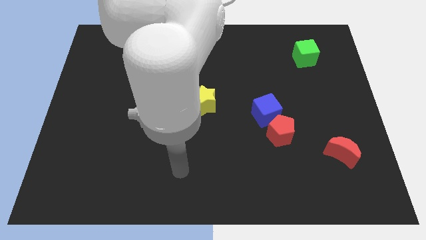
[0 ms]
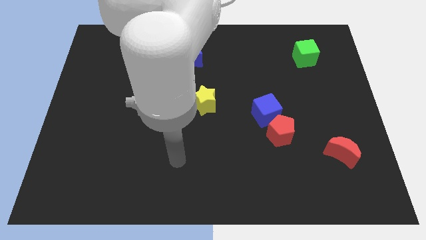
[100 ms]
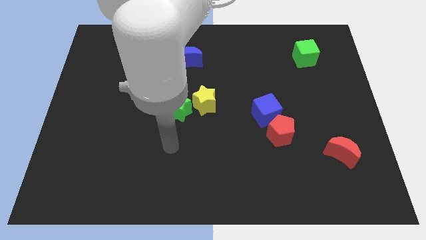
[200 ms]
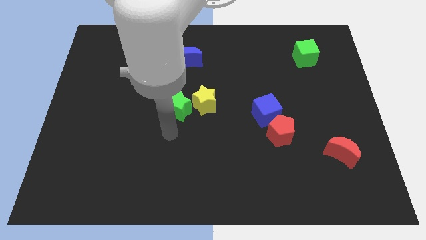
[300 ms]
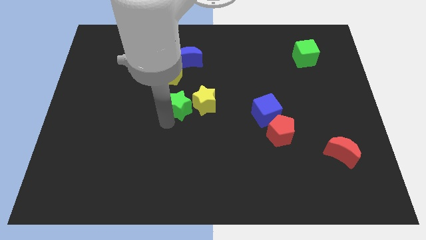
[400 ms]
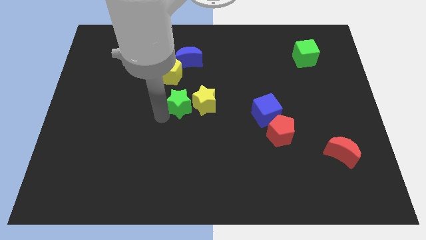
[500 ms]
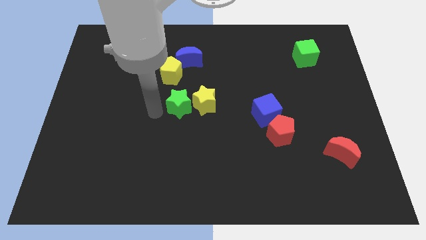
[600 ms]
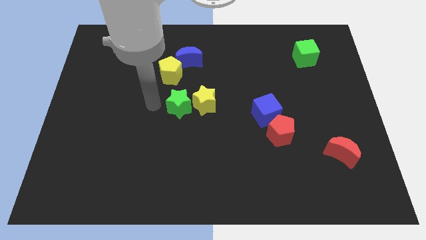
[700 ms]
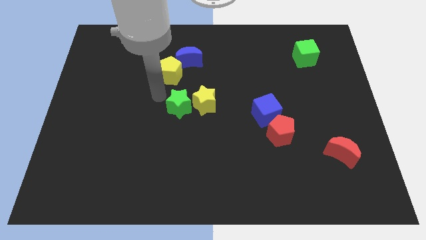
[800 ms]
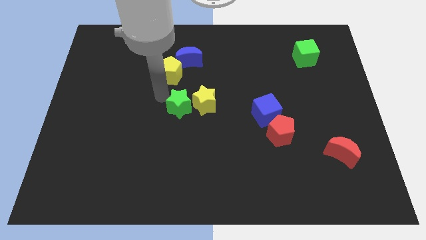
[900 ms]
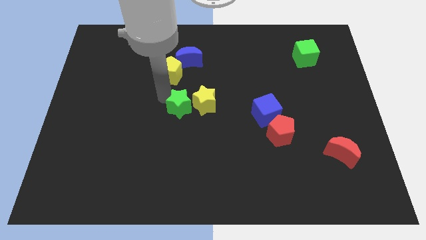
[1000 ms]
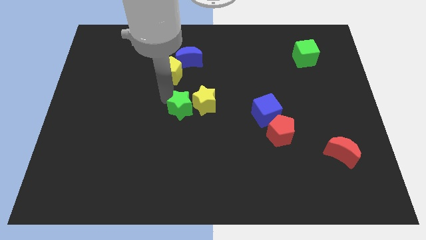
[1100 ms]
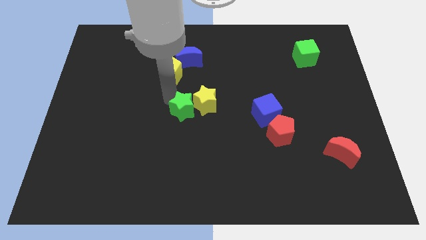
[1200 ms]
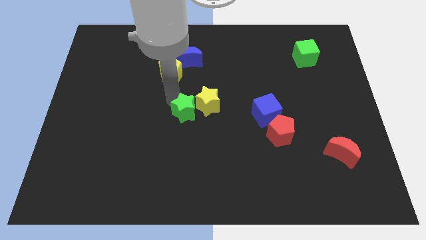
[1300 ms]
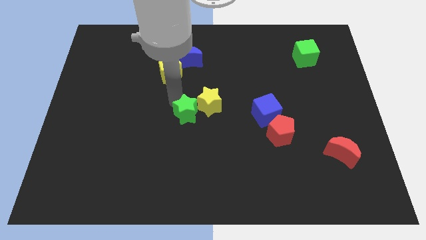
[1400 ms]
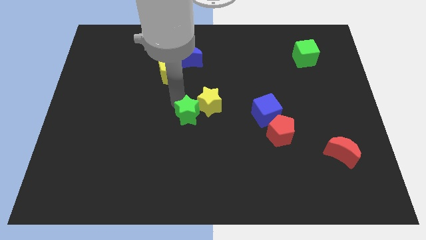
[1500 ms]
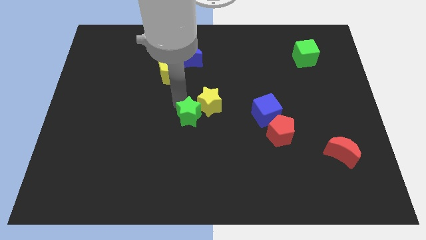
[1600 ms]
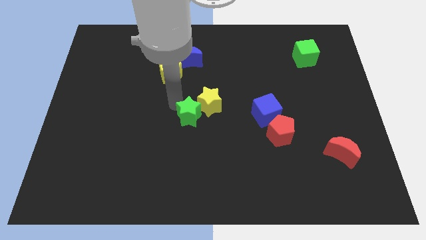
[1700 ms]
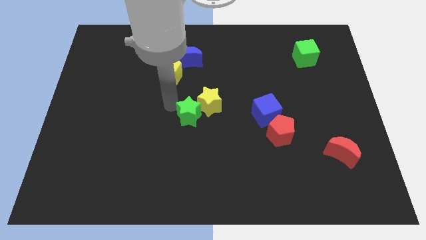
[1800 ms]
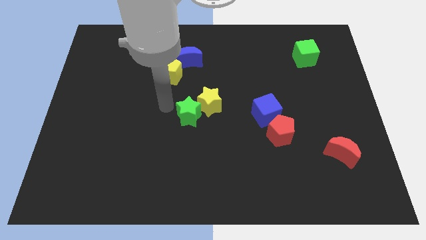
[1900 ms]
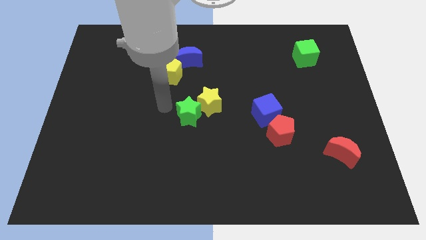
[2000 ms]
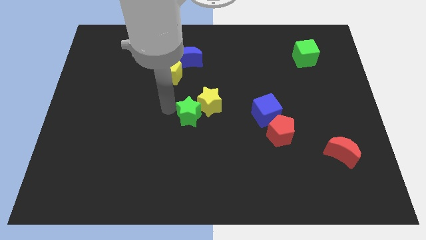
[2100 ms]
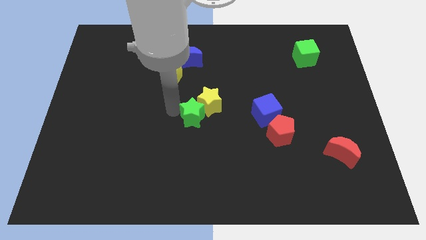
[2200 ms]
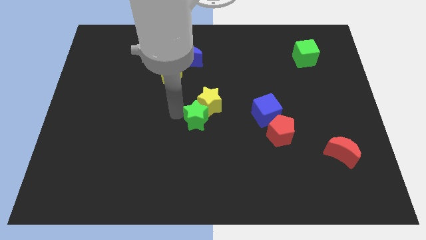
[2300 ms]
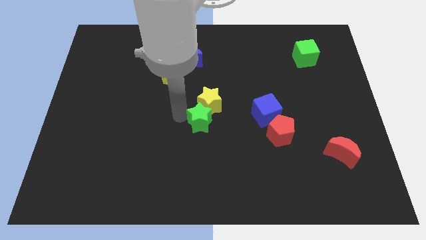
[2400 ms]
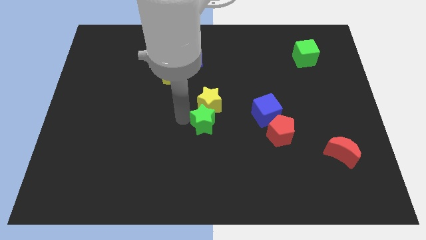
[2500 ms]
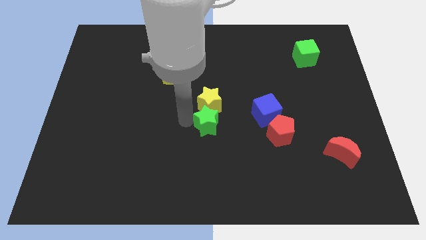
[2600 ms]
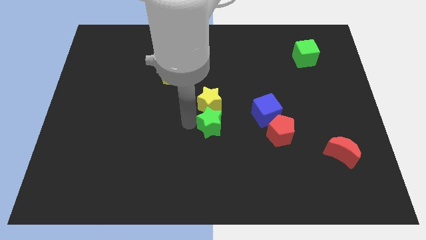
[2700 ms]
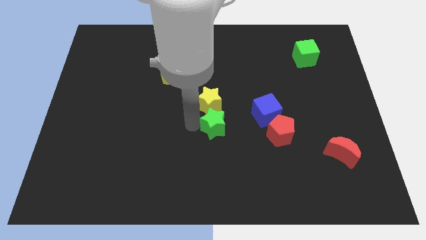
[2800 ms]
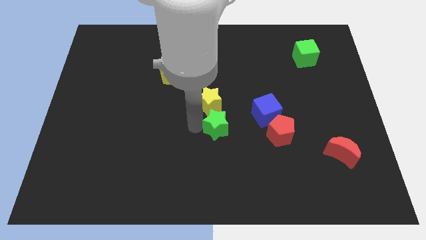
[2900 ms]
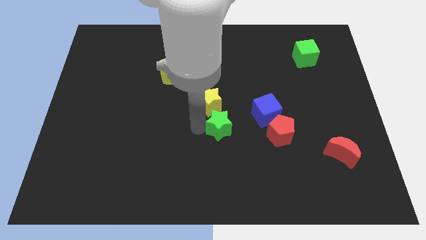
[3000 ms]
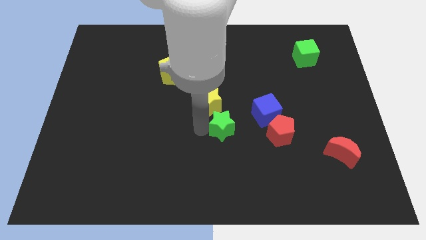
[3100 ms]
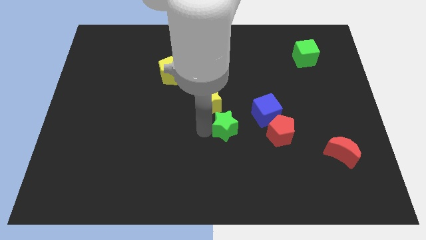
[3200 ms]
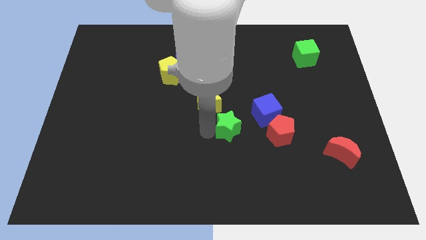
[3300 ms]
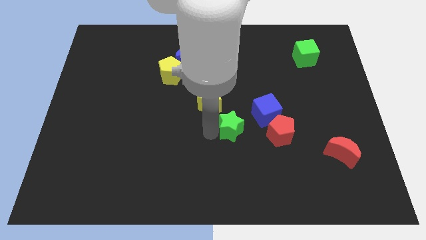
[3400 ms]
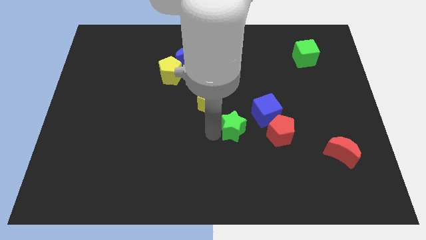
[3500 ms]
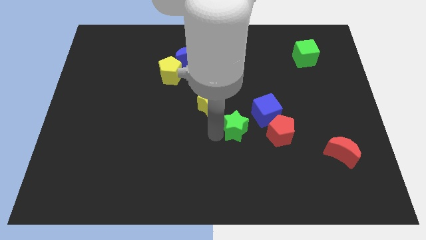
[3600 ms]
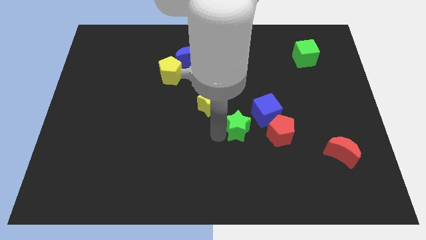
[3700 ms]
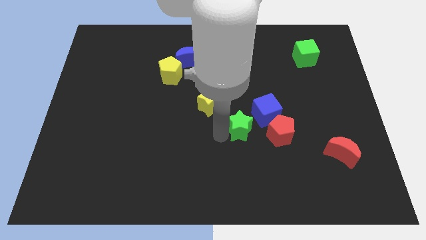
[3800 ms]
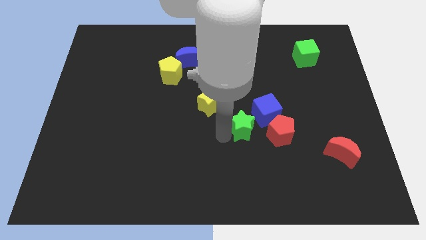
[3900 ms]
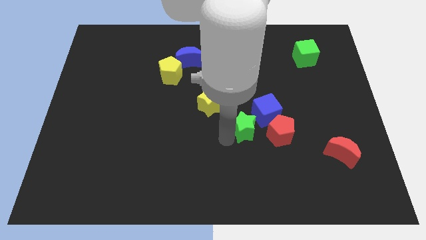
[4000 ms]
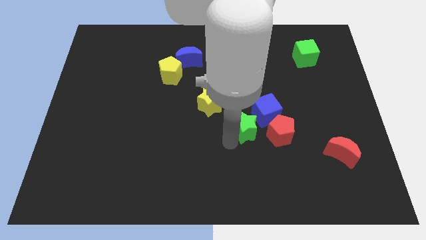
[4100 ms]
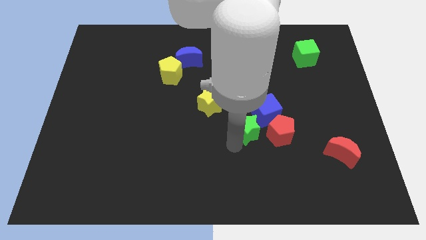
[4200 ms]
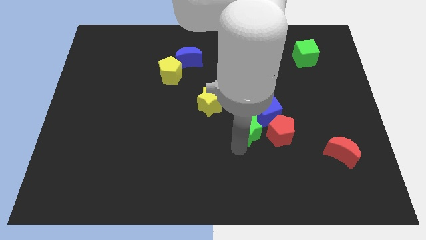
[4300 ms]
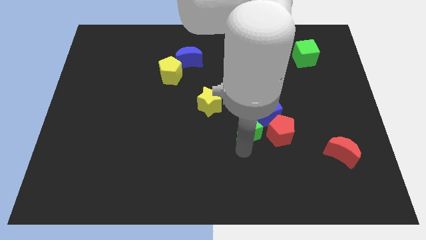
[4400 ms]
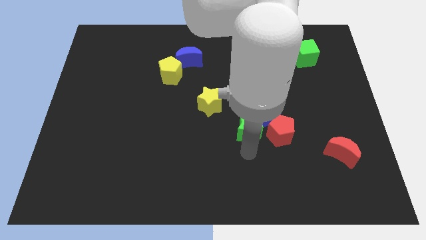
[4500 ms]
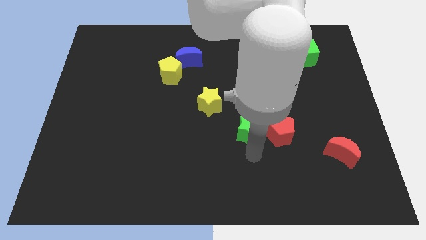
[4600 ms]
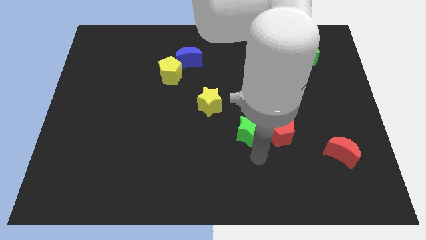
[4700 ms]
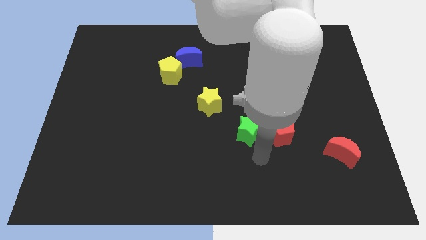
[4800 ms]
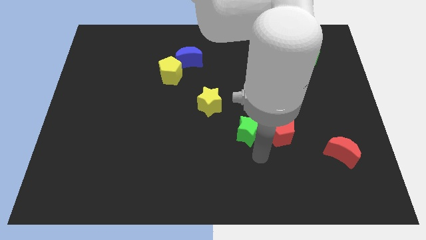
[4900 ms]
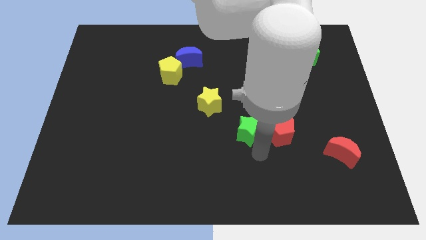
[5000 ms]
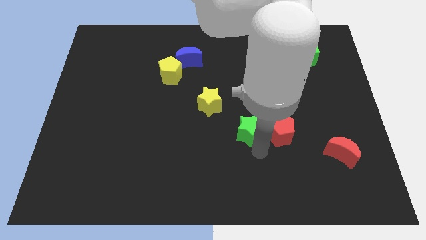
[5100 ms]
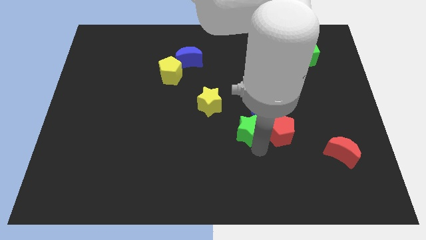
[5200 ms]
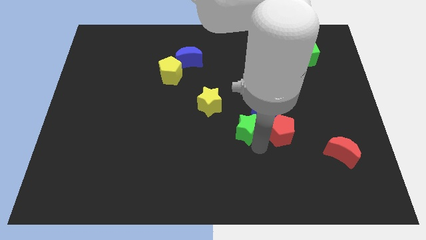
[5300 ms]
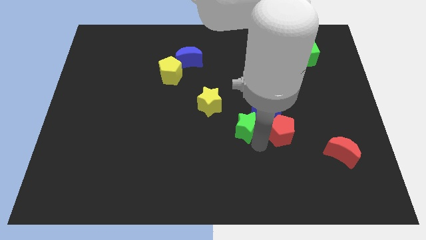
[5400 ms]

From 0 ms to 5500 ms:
slide the green star close to the blue cube

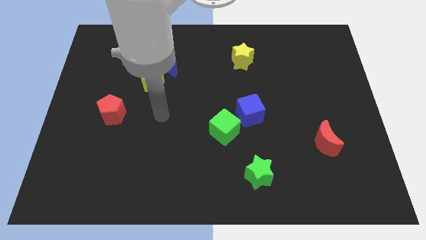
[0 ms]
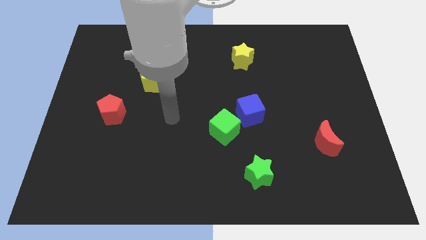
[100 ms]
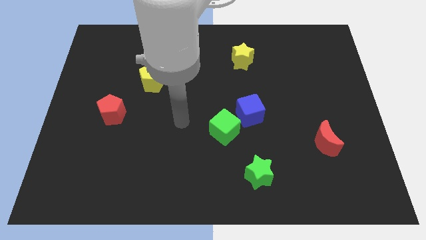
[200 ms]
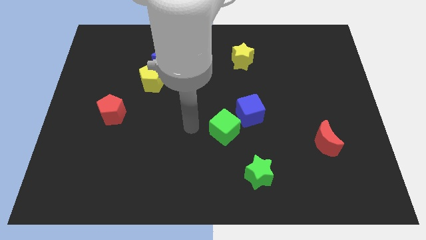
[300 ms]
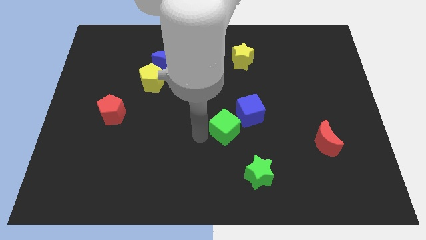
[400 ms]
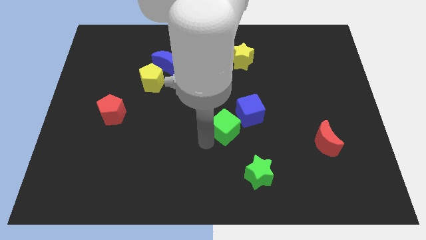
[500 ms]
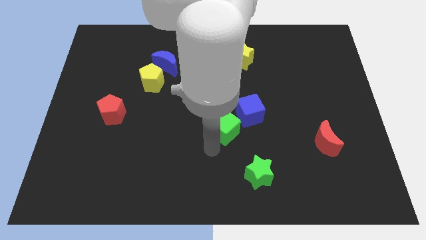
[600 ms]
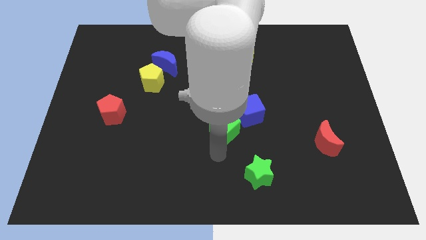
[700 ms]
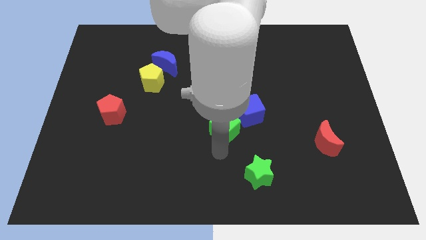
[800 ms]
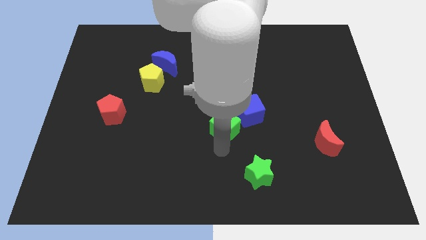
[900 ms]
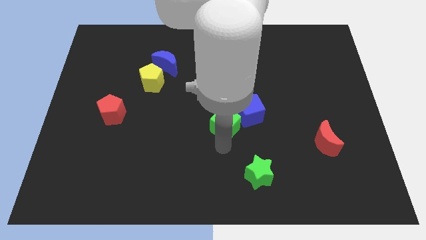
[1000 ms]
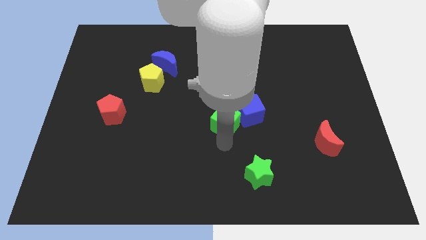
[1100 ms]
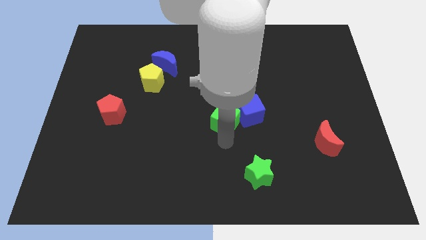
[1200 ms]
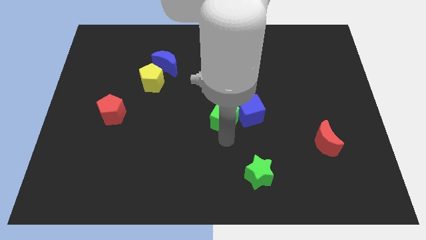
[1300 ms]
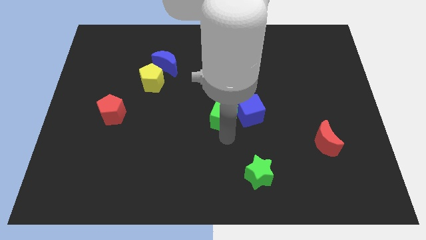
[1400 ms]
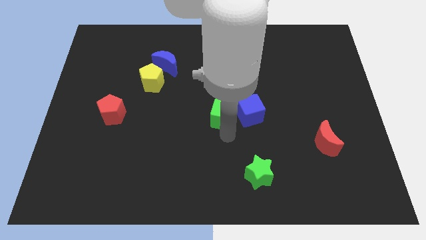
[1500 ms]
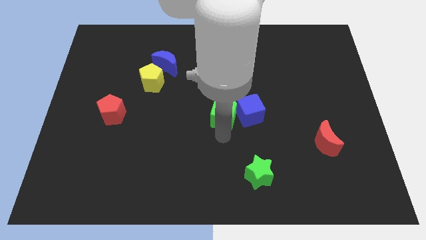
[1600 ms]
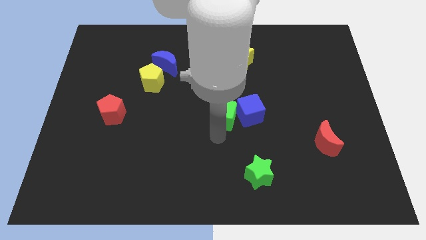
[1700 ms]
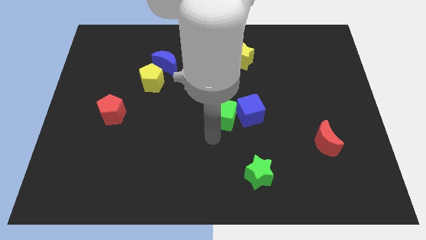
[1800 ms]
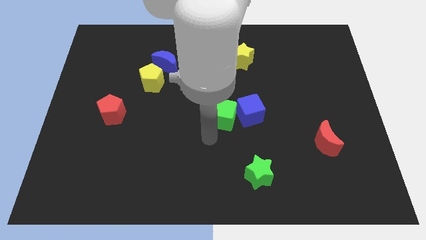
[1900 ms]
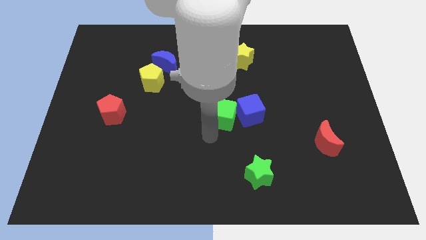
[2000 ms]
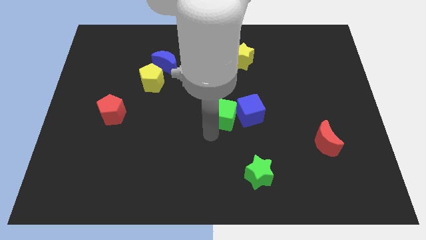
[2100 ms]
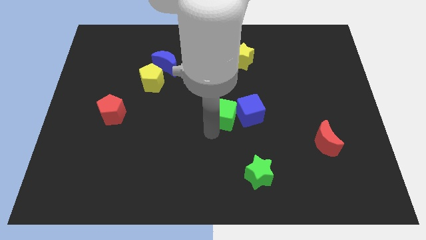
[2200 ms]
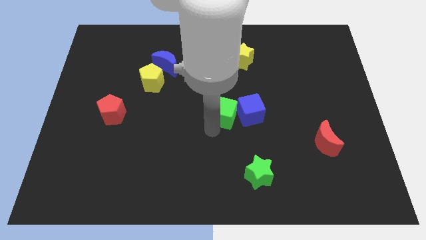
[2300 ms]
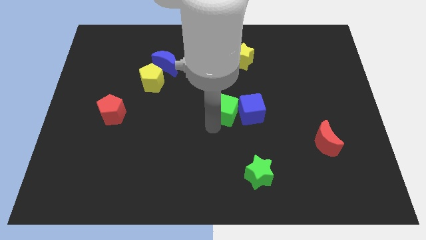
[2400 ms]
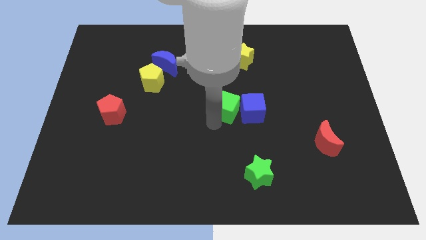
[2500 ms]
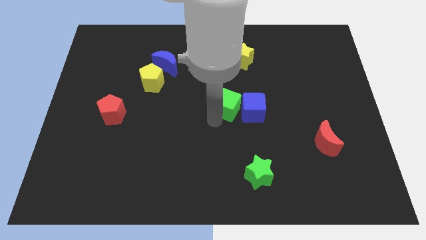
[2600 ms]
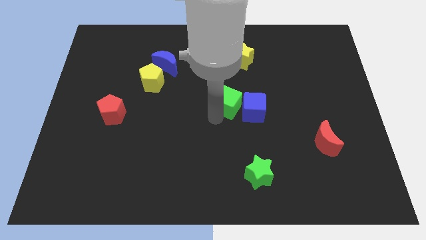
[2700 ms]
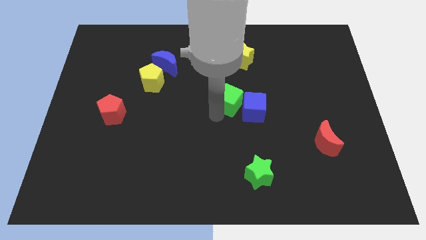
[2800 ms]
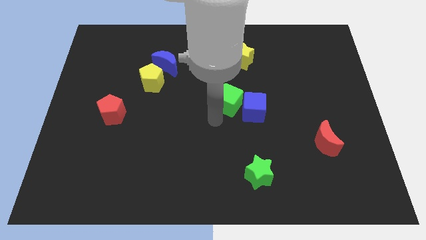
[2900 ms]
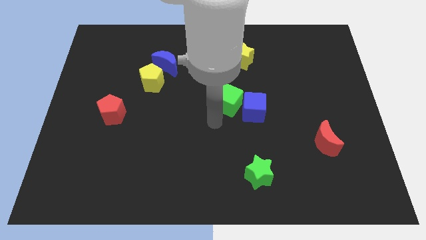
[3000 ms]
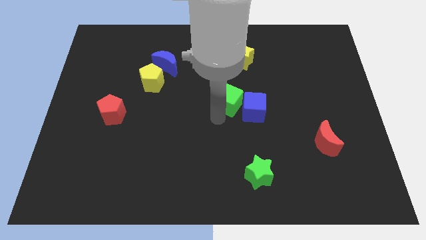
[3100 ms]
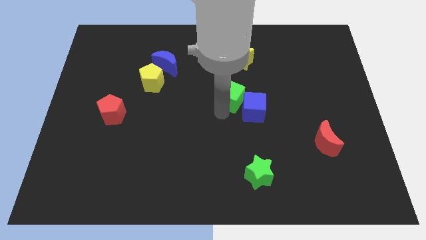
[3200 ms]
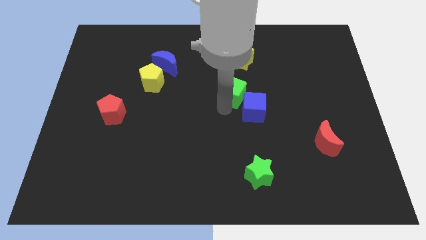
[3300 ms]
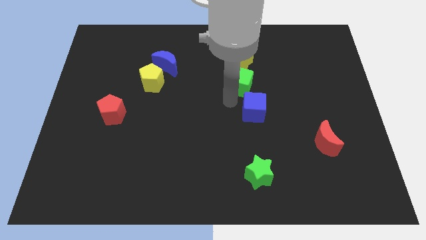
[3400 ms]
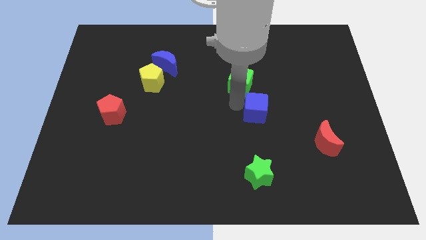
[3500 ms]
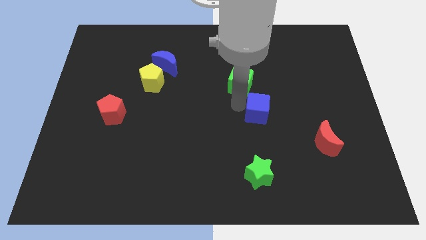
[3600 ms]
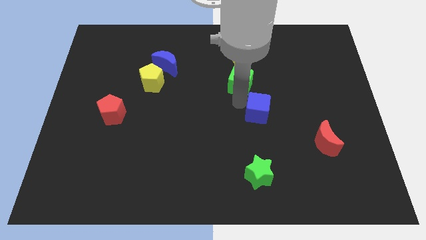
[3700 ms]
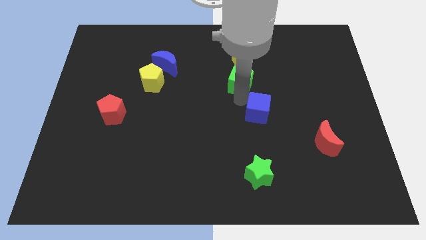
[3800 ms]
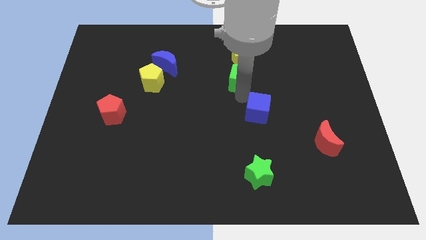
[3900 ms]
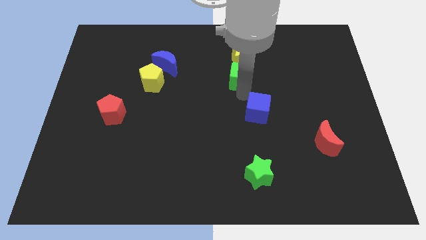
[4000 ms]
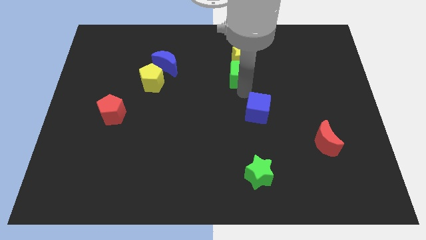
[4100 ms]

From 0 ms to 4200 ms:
move the green cube next to the yellow star
